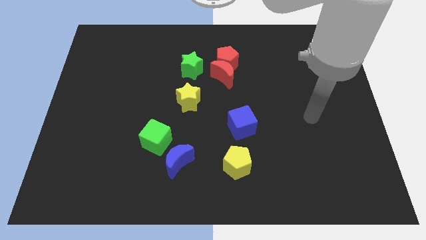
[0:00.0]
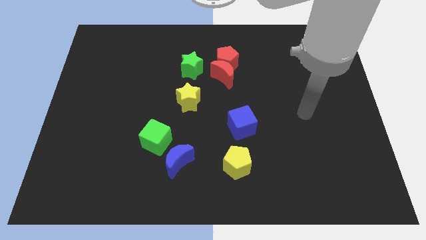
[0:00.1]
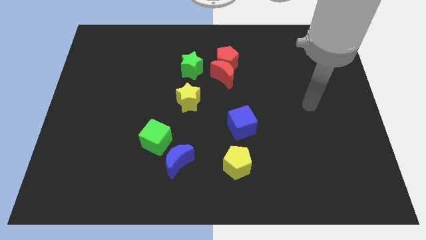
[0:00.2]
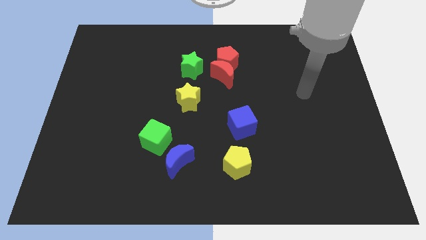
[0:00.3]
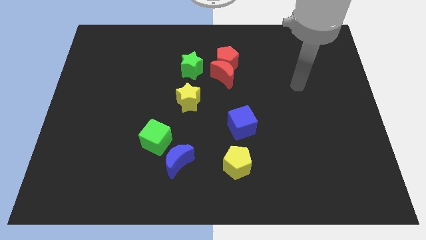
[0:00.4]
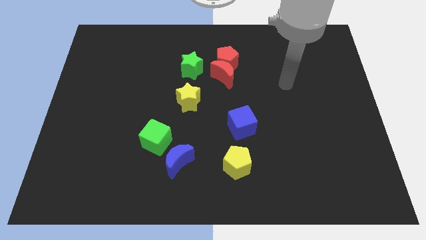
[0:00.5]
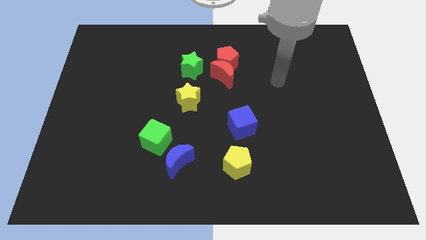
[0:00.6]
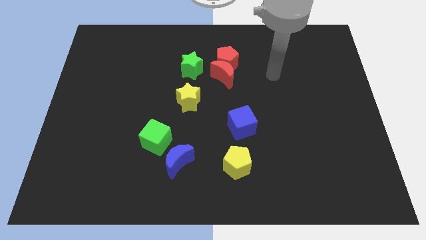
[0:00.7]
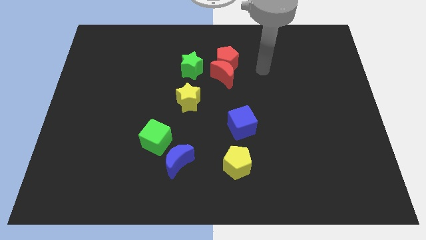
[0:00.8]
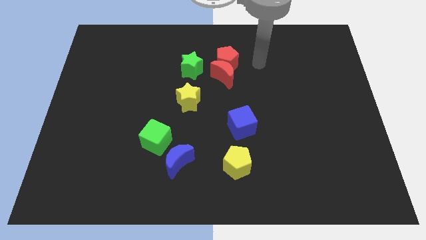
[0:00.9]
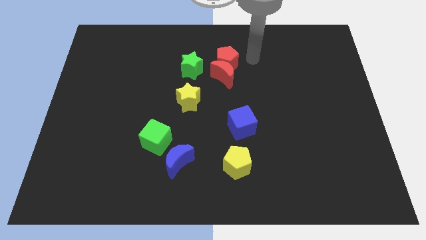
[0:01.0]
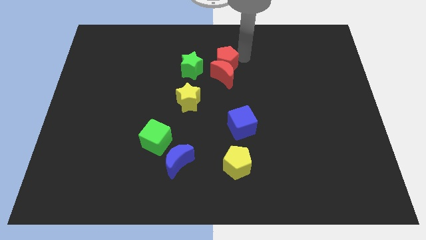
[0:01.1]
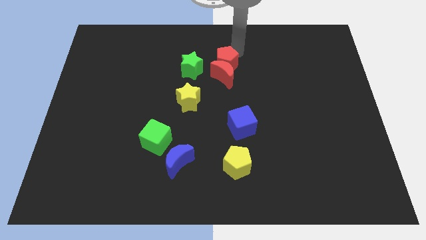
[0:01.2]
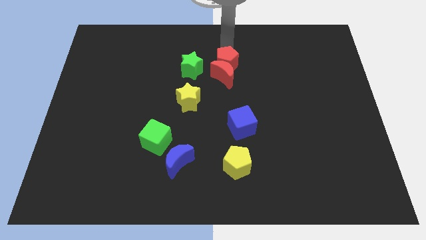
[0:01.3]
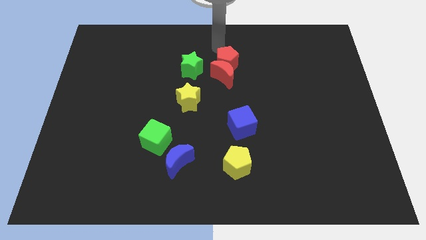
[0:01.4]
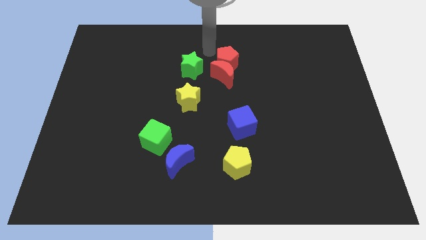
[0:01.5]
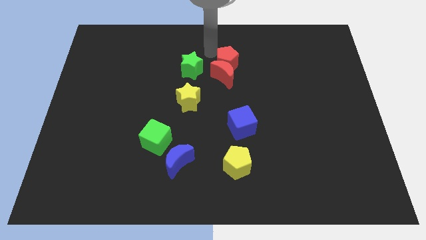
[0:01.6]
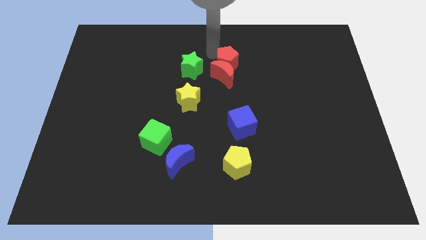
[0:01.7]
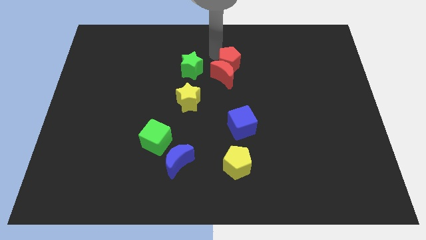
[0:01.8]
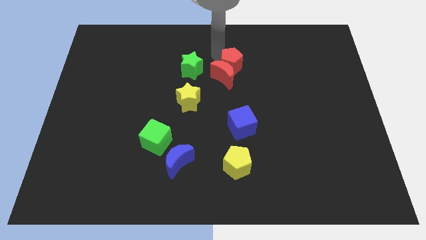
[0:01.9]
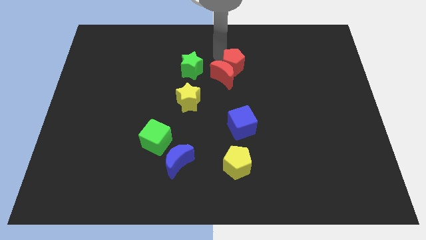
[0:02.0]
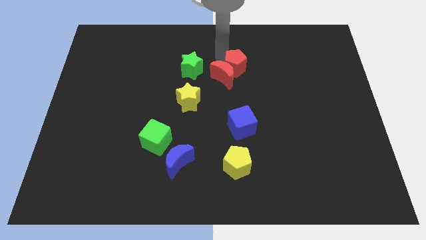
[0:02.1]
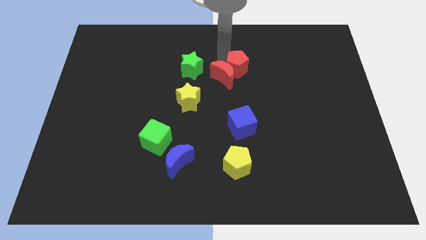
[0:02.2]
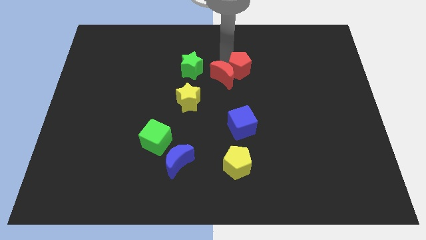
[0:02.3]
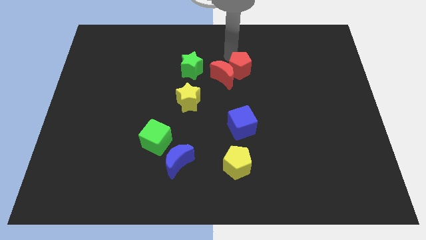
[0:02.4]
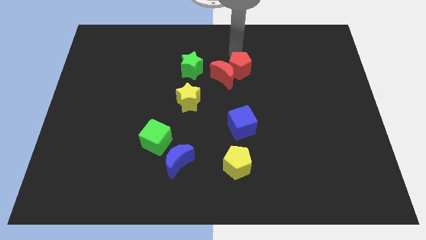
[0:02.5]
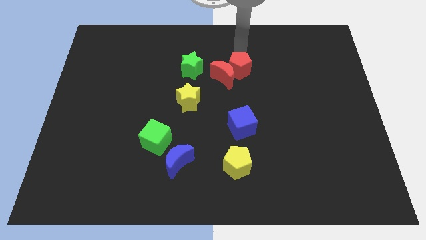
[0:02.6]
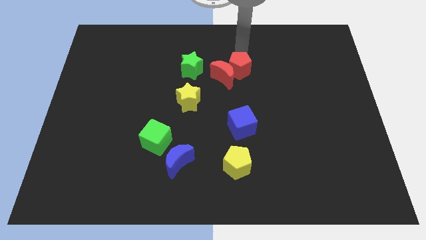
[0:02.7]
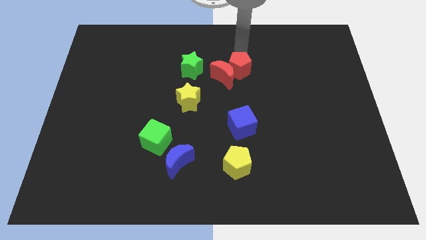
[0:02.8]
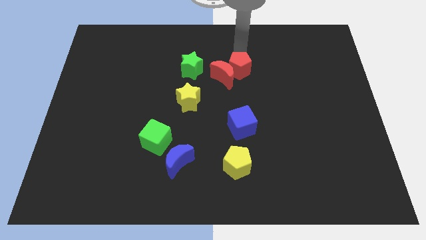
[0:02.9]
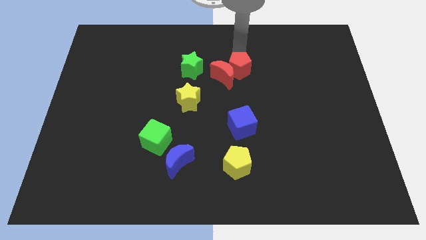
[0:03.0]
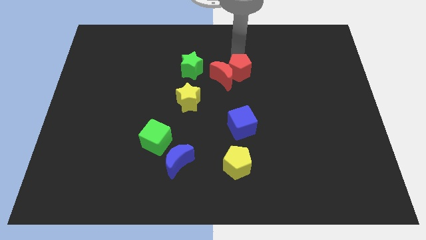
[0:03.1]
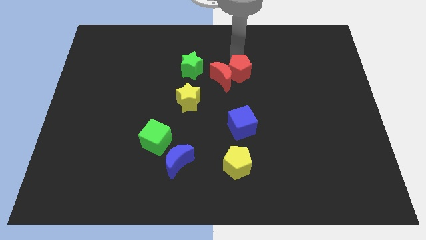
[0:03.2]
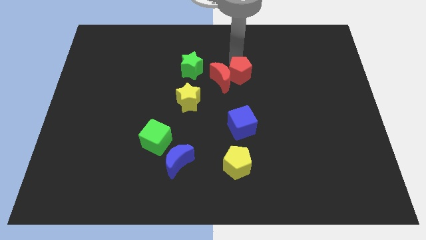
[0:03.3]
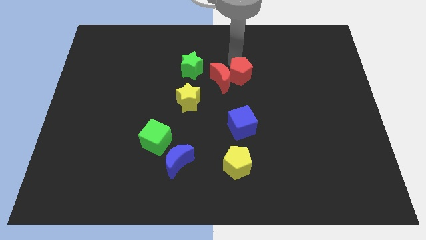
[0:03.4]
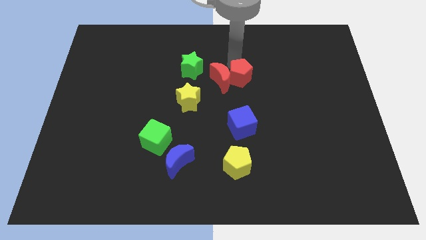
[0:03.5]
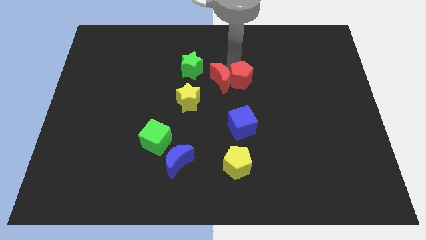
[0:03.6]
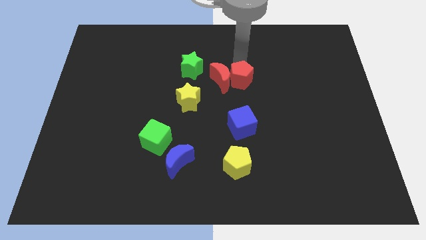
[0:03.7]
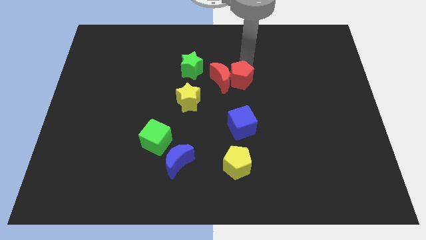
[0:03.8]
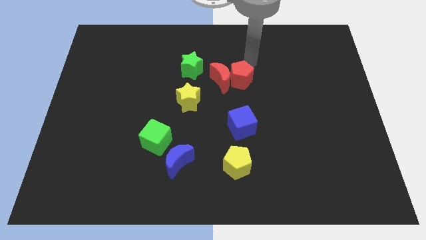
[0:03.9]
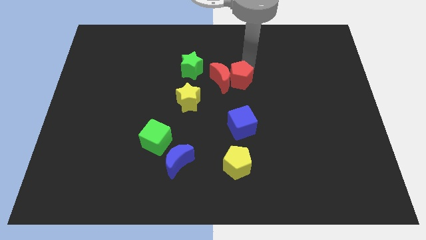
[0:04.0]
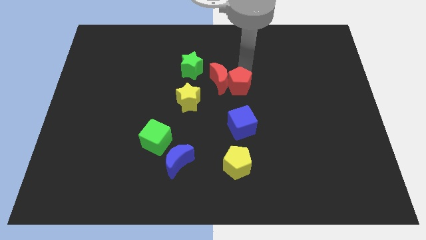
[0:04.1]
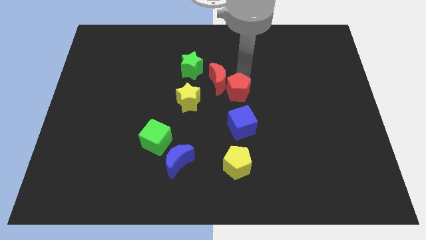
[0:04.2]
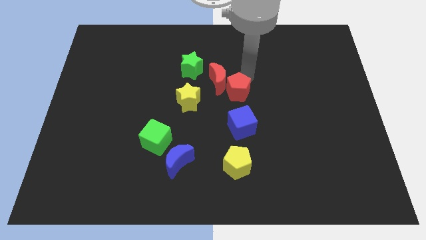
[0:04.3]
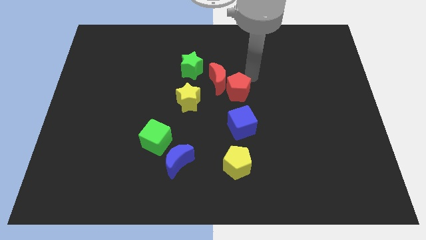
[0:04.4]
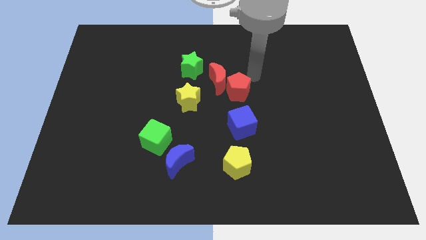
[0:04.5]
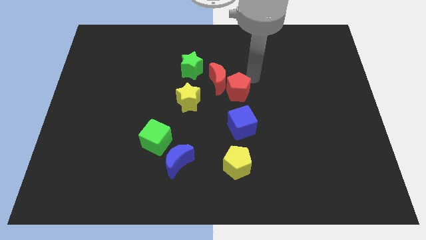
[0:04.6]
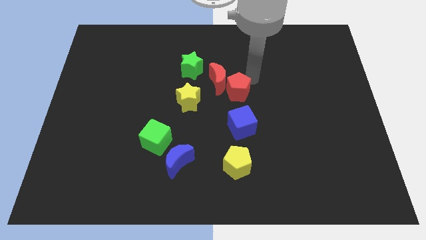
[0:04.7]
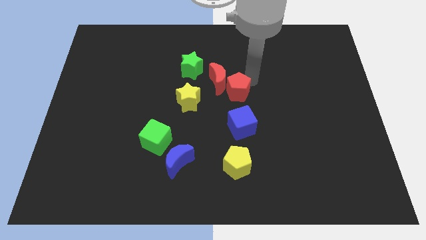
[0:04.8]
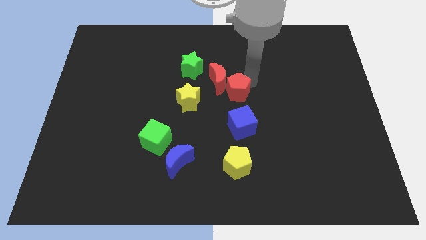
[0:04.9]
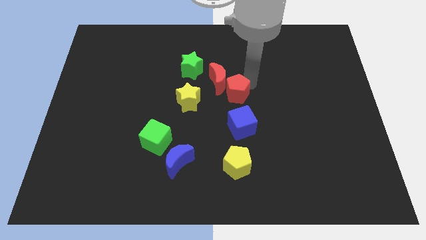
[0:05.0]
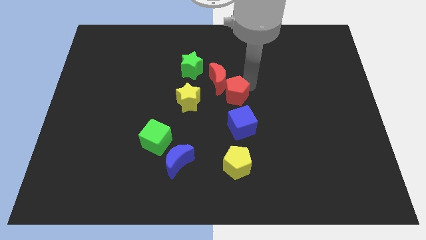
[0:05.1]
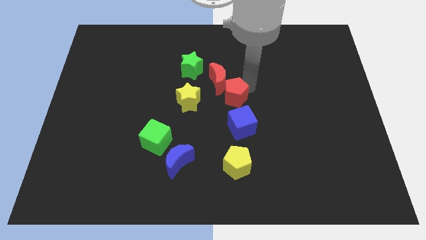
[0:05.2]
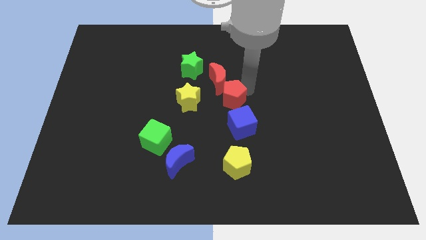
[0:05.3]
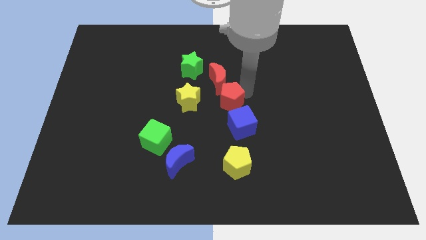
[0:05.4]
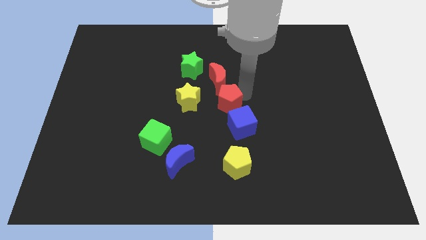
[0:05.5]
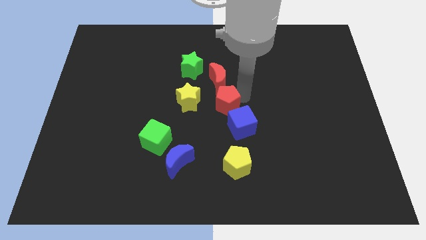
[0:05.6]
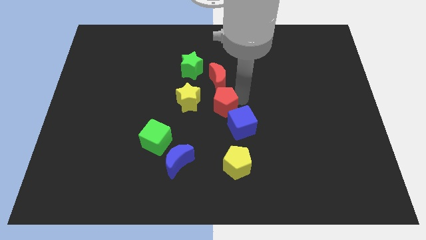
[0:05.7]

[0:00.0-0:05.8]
push the red pentagon diagonally down and to the right of the yellow star

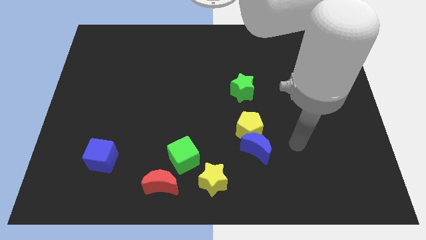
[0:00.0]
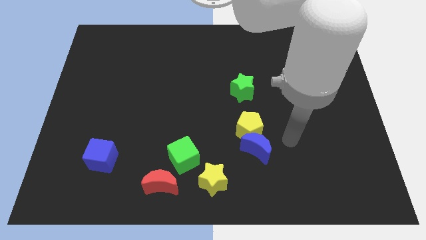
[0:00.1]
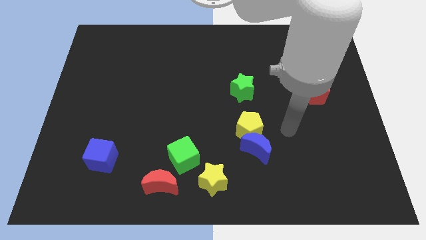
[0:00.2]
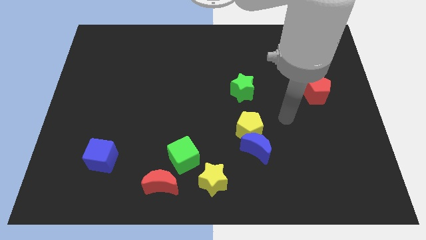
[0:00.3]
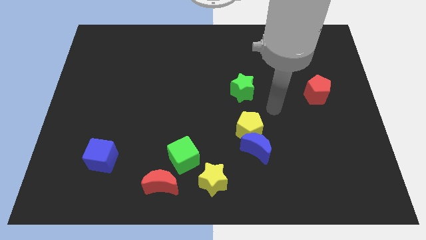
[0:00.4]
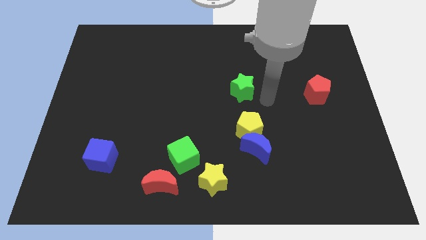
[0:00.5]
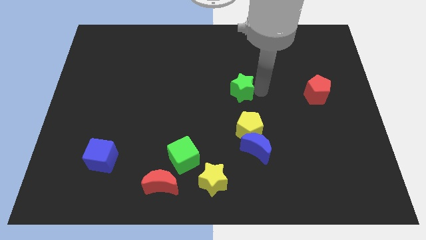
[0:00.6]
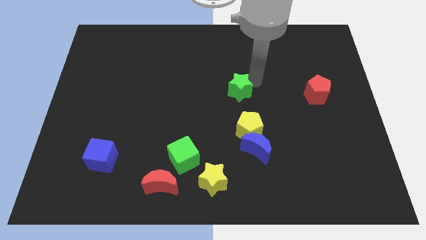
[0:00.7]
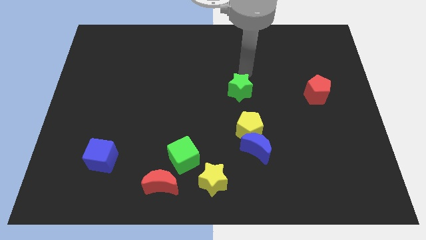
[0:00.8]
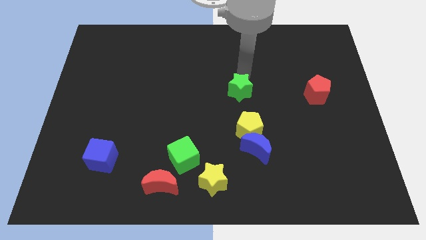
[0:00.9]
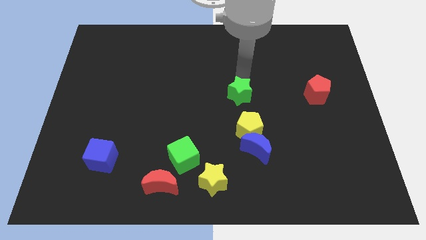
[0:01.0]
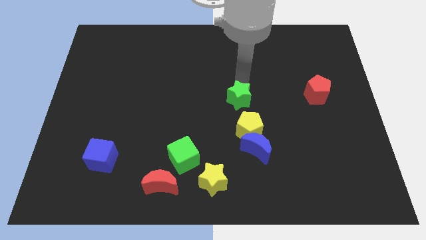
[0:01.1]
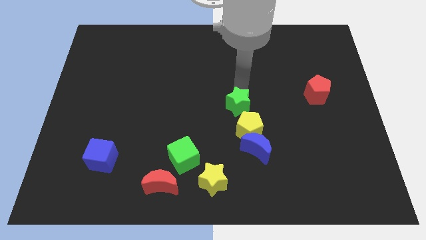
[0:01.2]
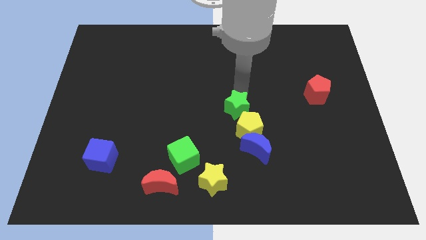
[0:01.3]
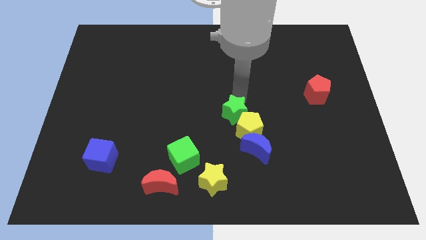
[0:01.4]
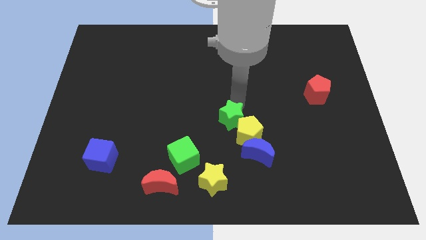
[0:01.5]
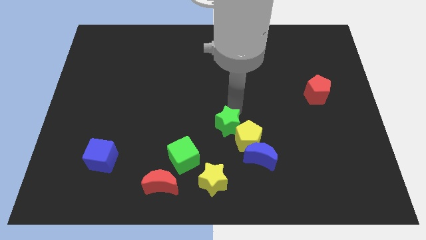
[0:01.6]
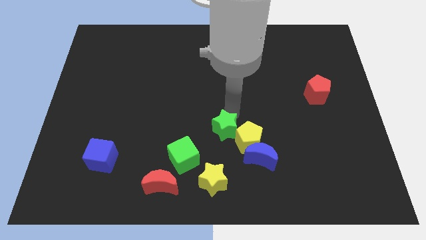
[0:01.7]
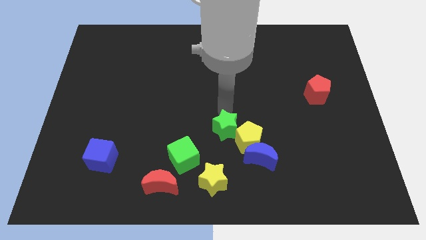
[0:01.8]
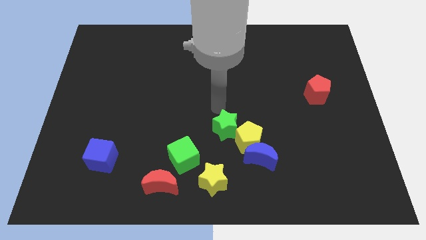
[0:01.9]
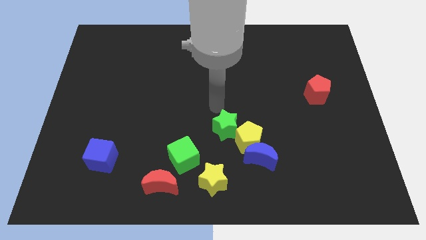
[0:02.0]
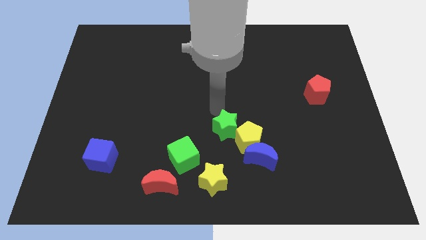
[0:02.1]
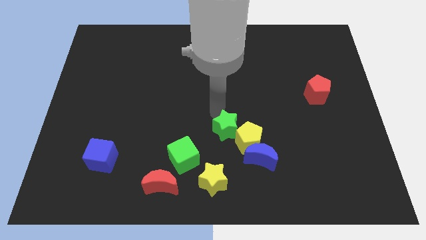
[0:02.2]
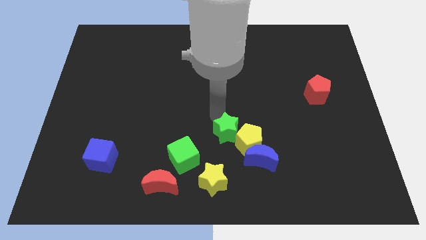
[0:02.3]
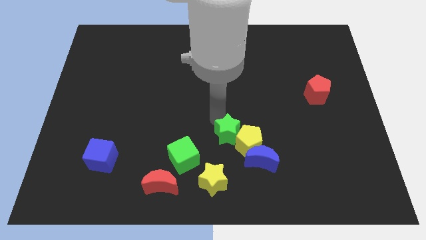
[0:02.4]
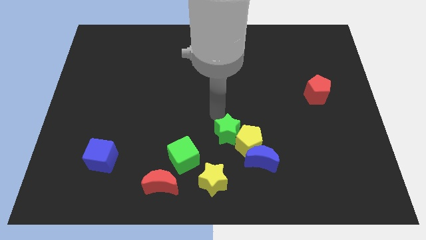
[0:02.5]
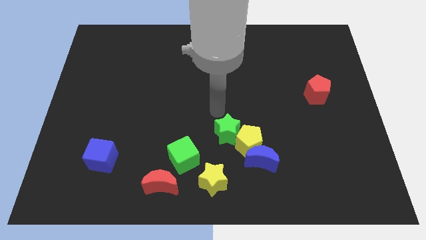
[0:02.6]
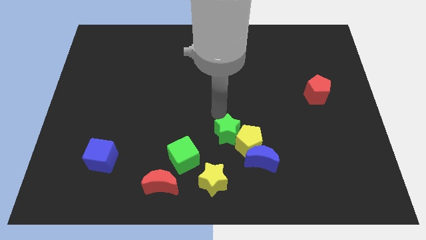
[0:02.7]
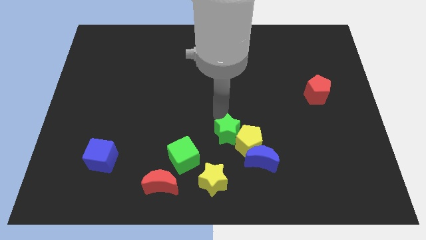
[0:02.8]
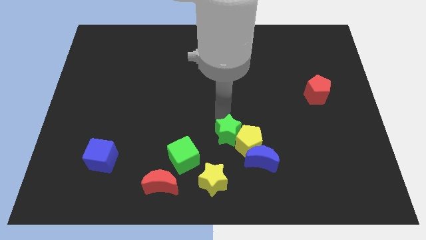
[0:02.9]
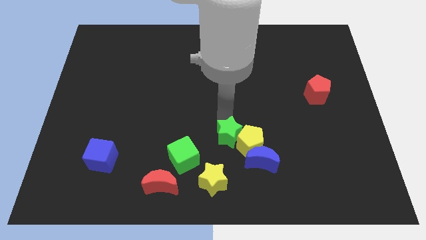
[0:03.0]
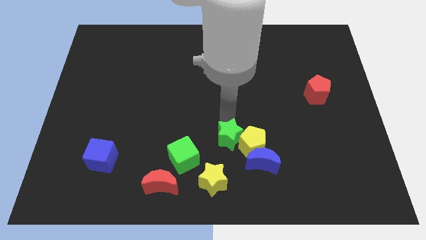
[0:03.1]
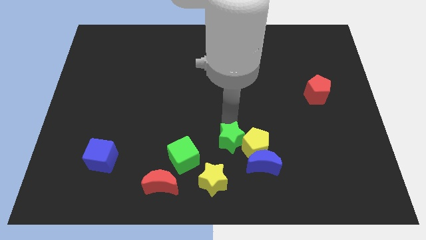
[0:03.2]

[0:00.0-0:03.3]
push the green star diagonally up and to the right of the yellow star
